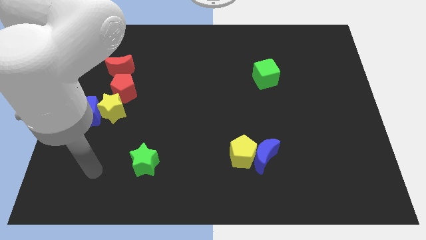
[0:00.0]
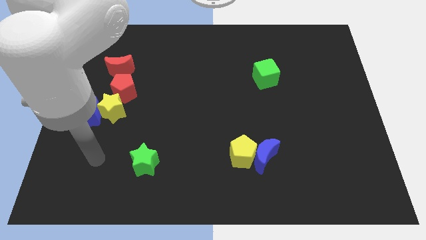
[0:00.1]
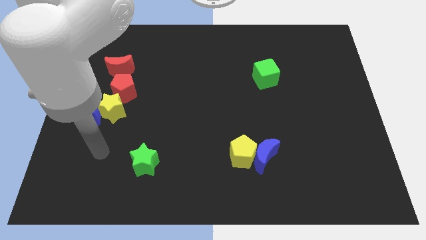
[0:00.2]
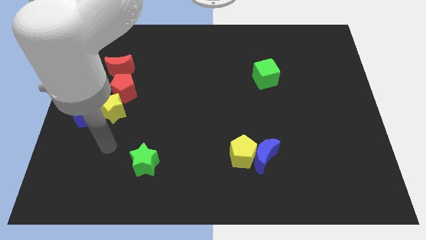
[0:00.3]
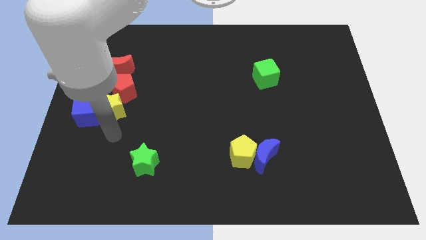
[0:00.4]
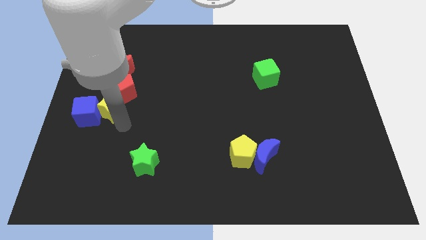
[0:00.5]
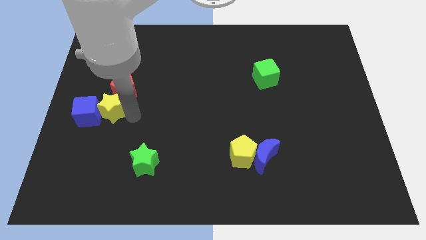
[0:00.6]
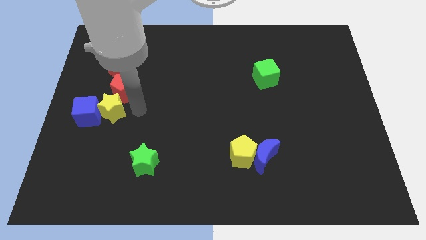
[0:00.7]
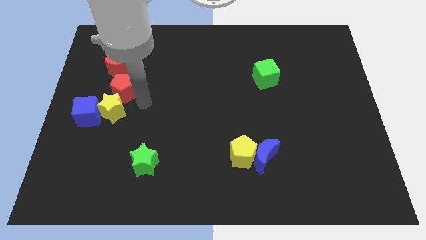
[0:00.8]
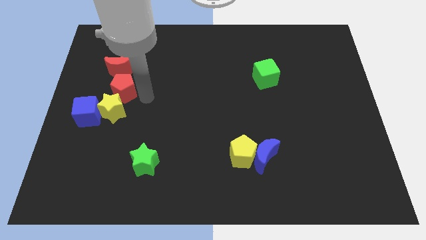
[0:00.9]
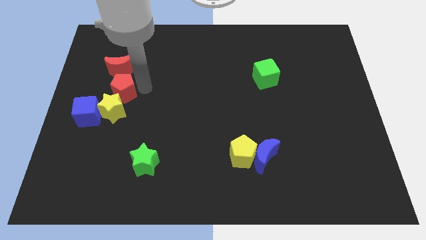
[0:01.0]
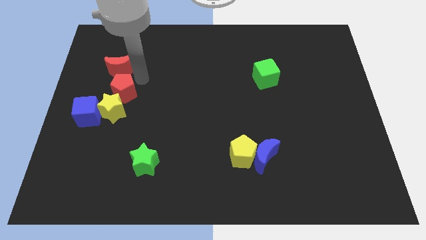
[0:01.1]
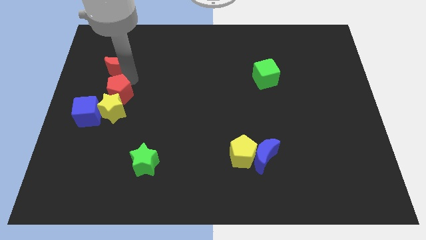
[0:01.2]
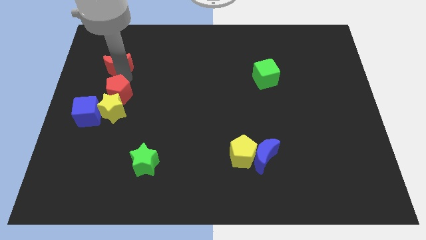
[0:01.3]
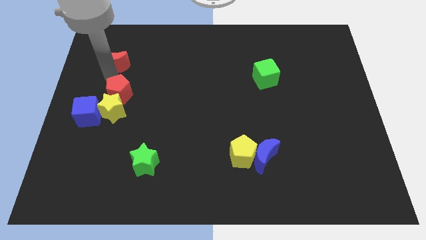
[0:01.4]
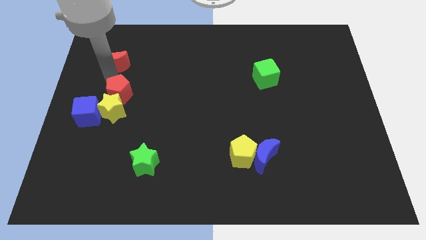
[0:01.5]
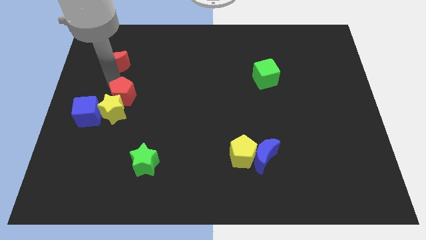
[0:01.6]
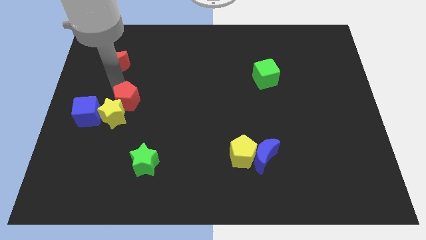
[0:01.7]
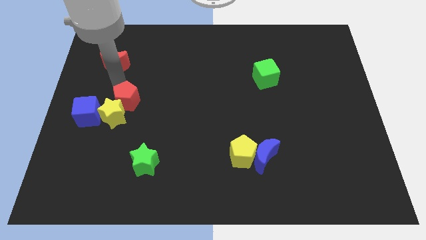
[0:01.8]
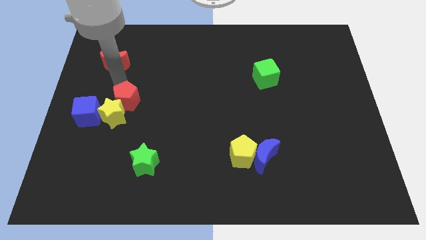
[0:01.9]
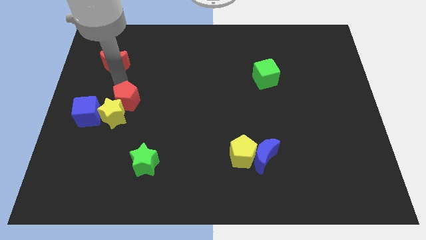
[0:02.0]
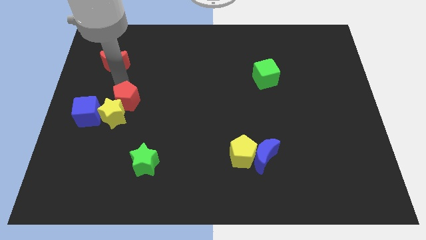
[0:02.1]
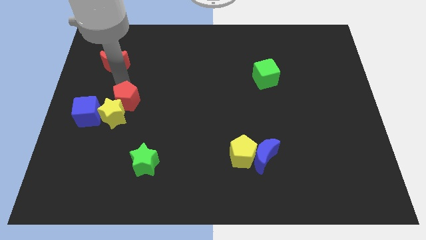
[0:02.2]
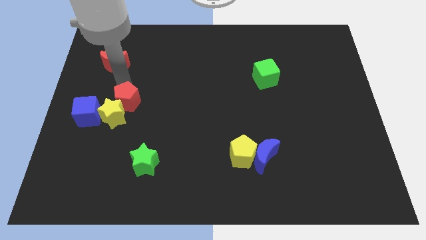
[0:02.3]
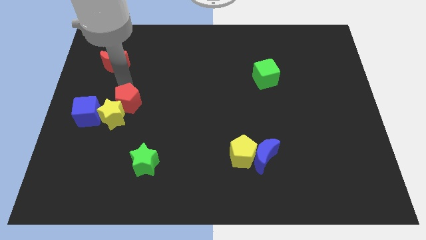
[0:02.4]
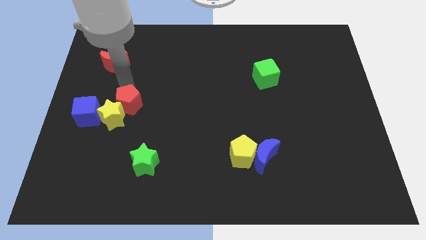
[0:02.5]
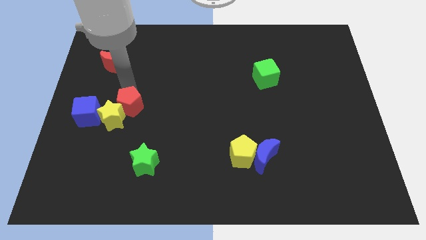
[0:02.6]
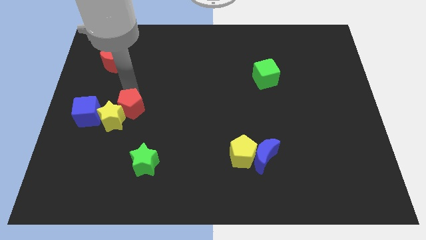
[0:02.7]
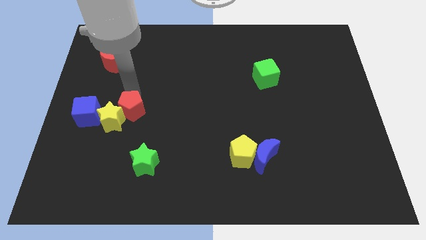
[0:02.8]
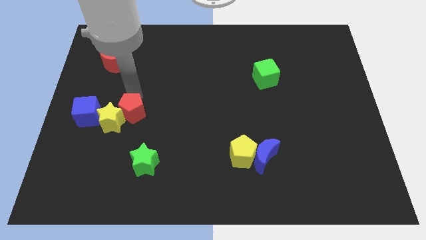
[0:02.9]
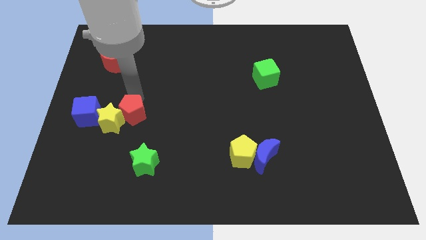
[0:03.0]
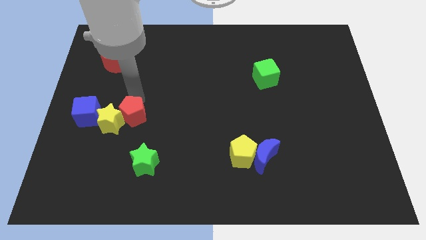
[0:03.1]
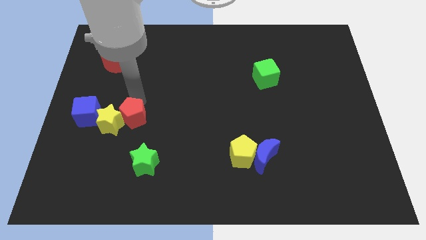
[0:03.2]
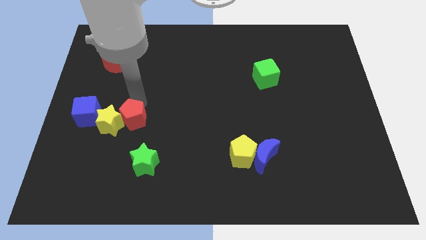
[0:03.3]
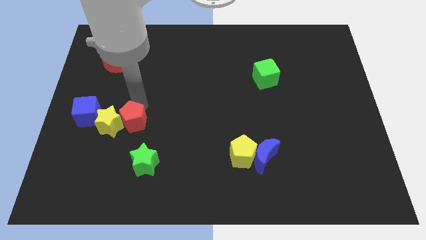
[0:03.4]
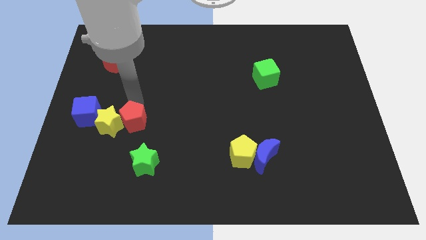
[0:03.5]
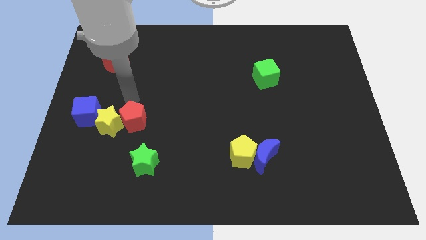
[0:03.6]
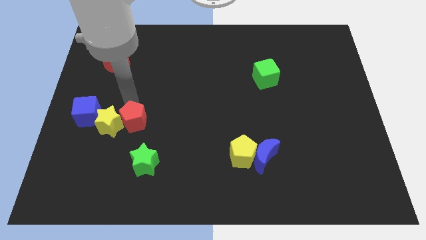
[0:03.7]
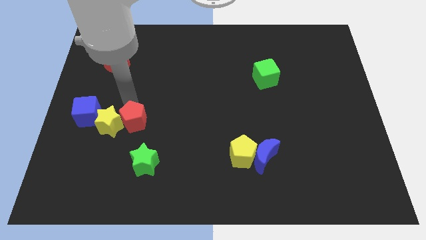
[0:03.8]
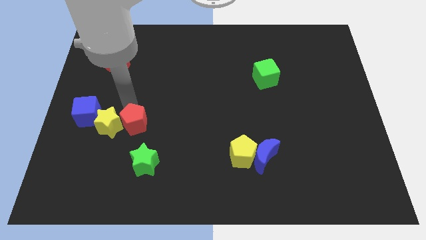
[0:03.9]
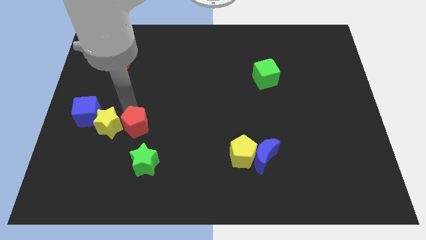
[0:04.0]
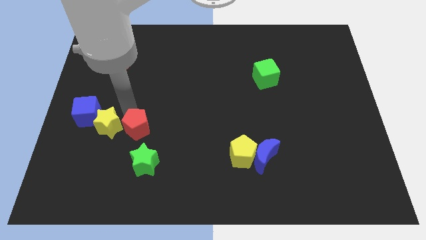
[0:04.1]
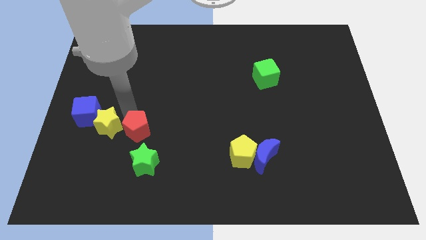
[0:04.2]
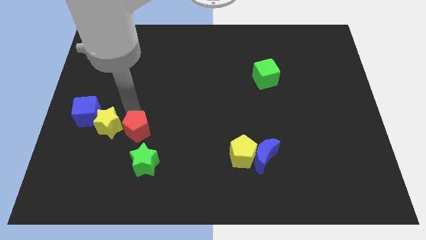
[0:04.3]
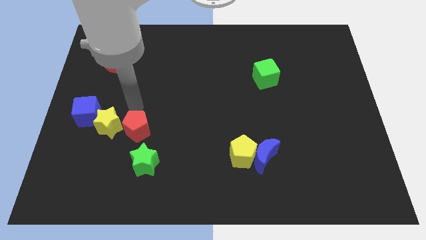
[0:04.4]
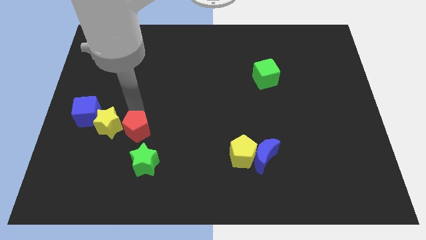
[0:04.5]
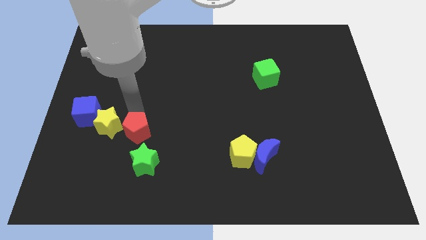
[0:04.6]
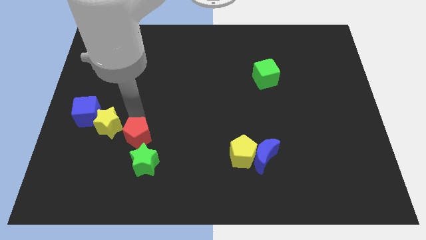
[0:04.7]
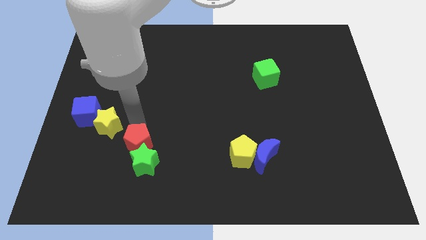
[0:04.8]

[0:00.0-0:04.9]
push the red pentagon close to the green star

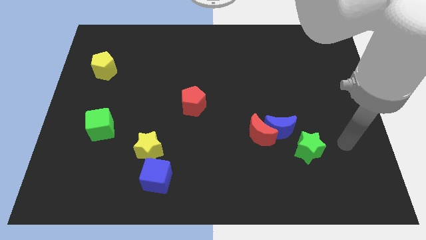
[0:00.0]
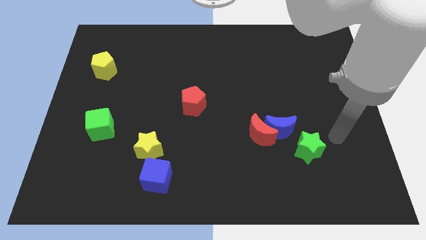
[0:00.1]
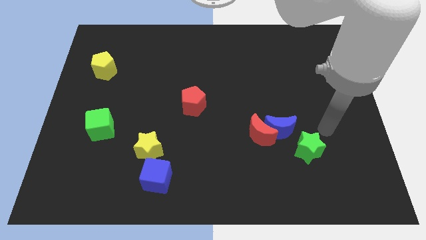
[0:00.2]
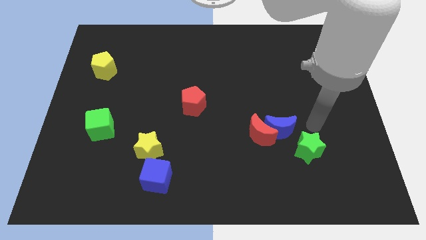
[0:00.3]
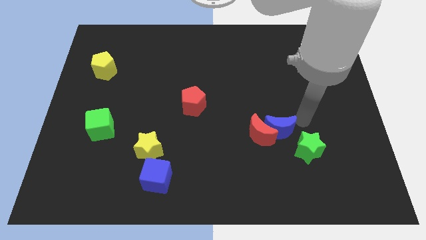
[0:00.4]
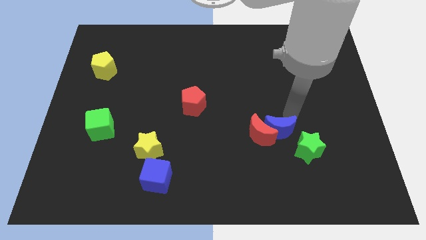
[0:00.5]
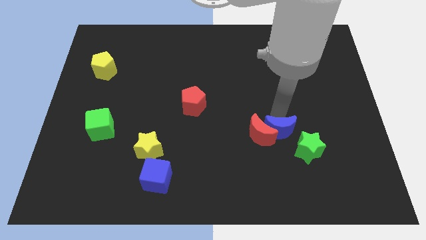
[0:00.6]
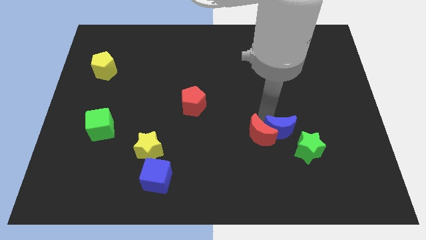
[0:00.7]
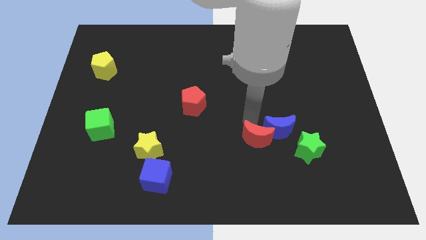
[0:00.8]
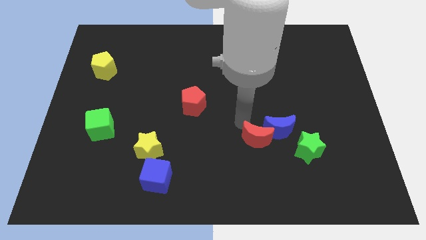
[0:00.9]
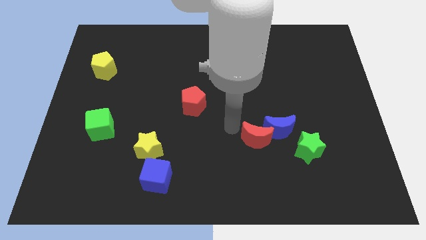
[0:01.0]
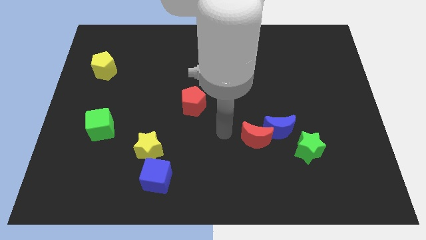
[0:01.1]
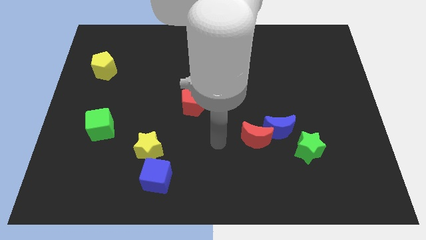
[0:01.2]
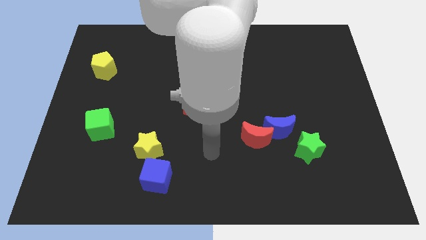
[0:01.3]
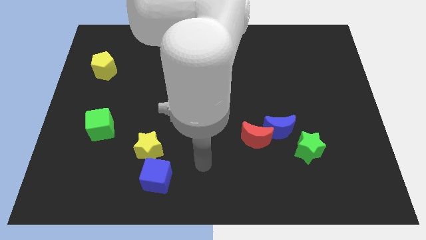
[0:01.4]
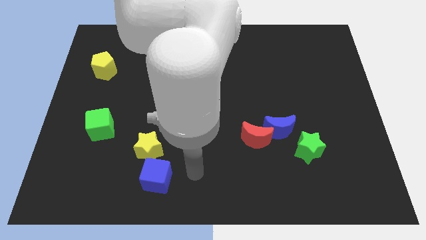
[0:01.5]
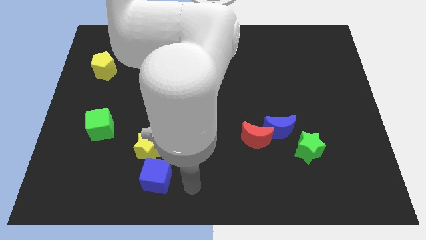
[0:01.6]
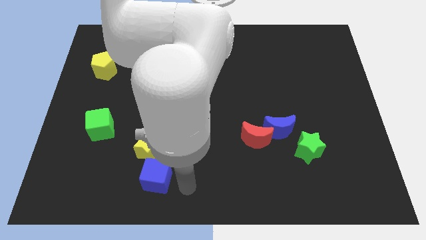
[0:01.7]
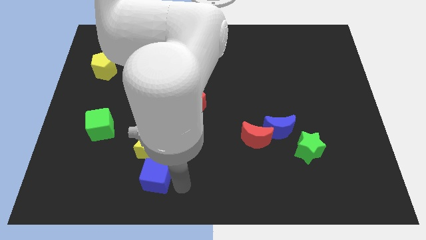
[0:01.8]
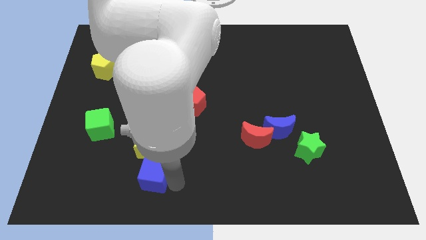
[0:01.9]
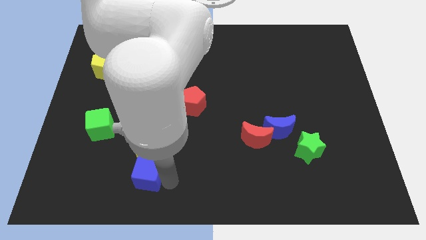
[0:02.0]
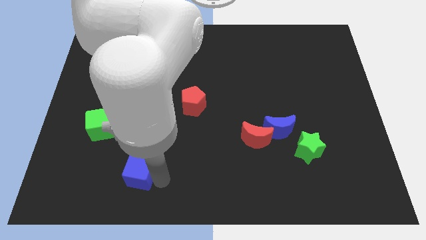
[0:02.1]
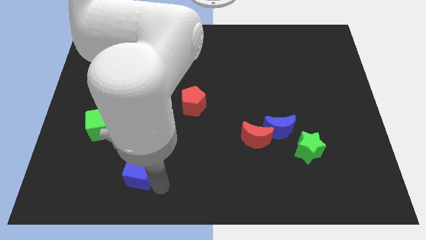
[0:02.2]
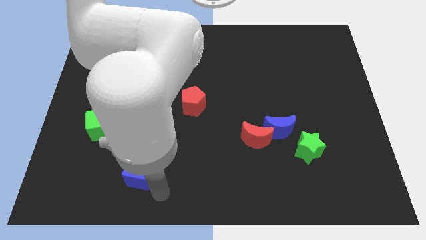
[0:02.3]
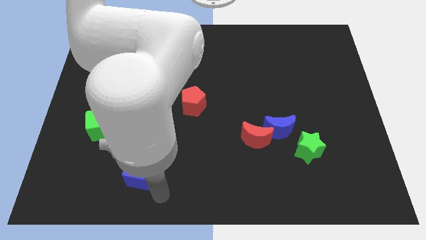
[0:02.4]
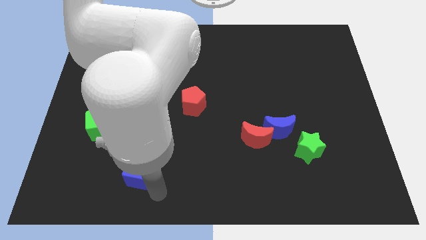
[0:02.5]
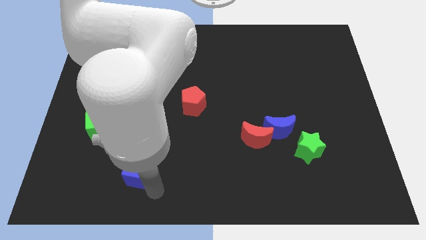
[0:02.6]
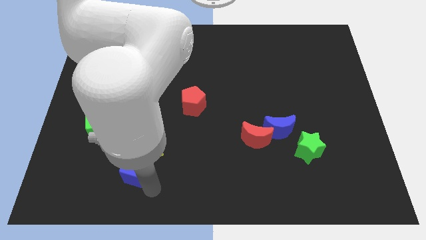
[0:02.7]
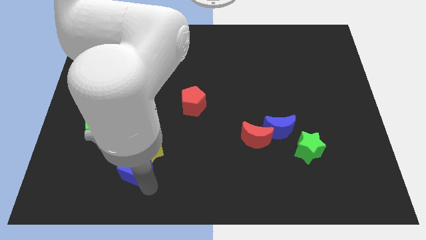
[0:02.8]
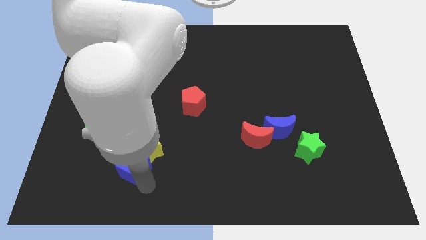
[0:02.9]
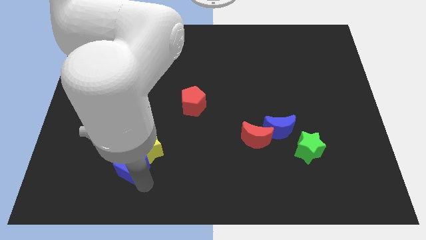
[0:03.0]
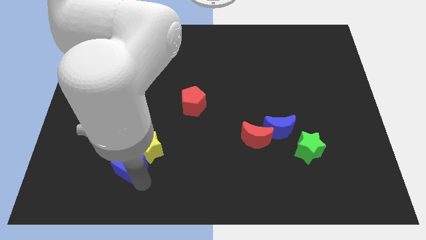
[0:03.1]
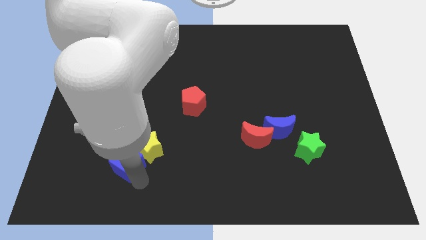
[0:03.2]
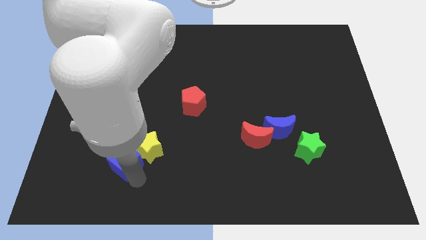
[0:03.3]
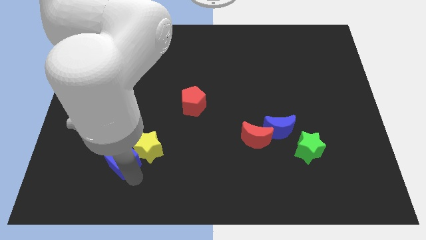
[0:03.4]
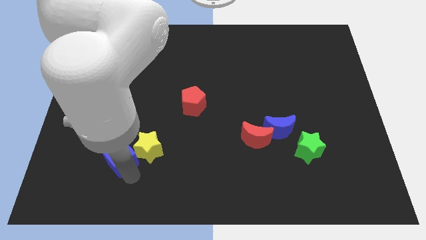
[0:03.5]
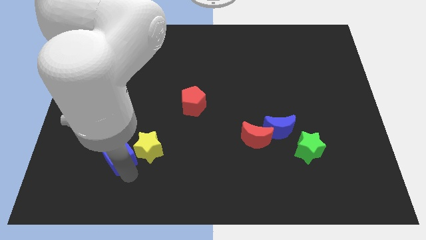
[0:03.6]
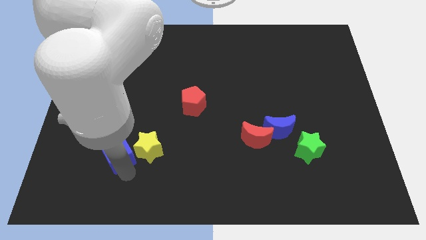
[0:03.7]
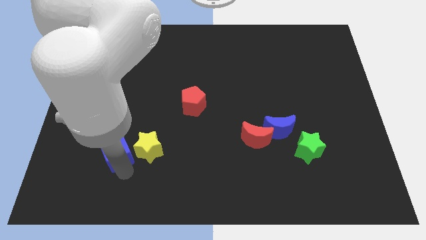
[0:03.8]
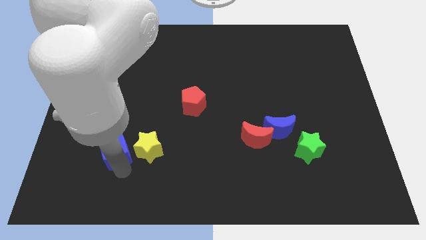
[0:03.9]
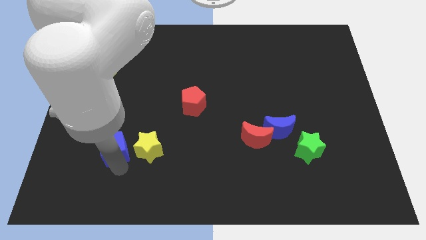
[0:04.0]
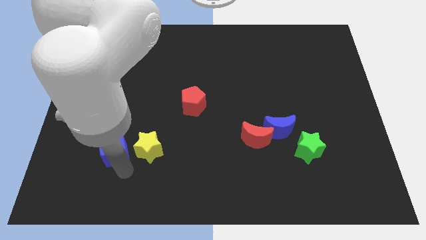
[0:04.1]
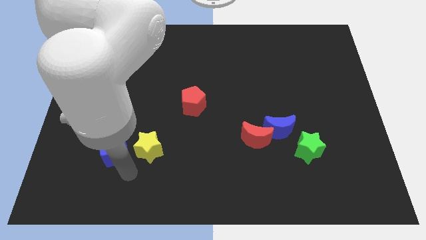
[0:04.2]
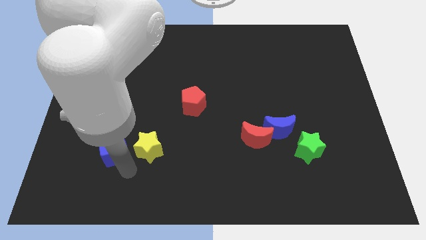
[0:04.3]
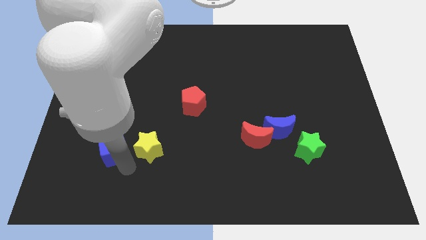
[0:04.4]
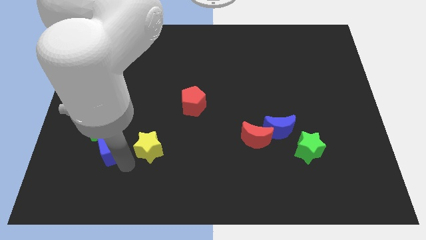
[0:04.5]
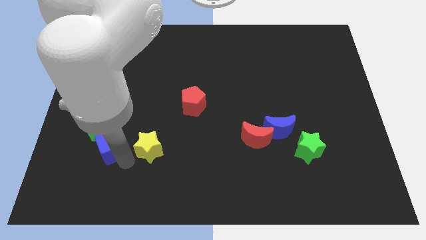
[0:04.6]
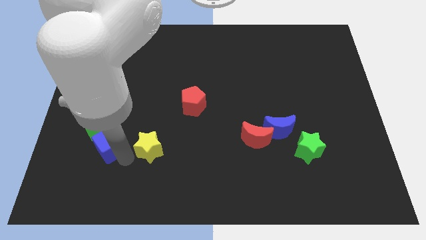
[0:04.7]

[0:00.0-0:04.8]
push the blue cube close to the green cube
